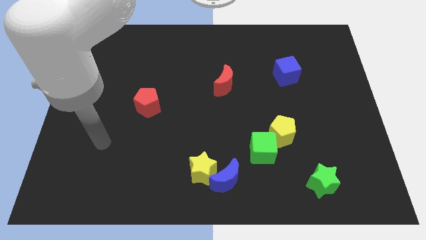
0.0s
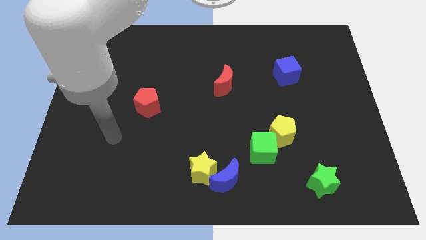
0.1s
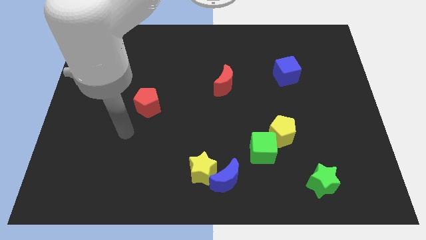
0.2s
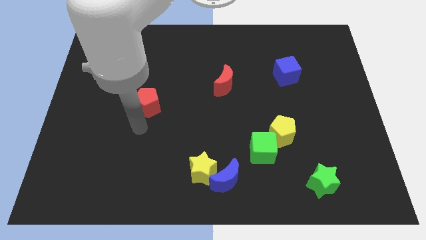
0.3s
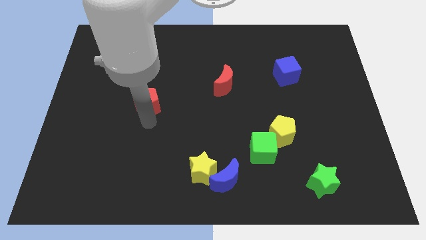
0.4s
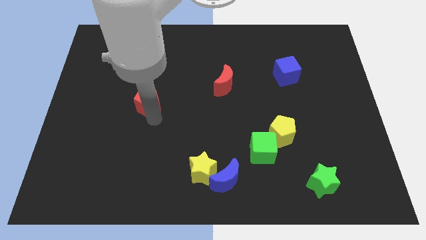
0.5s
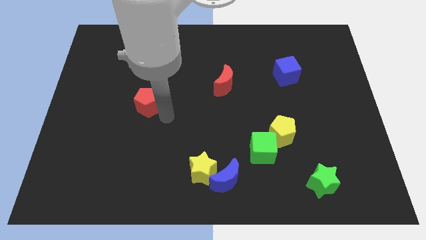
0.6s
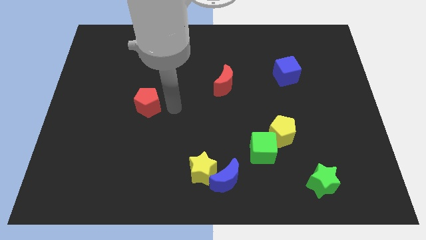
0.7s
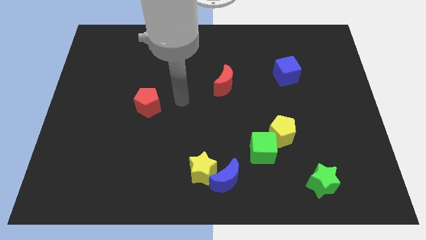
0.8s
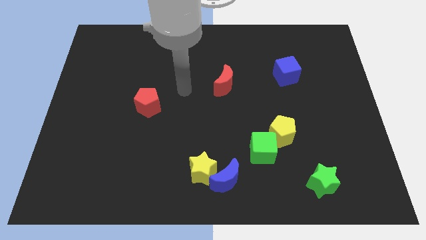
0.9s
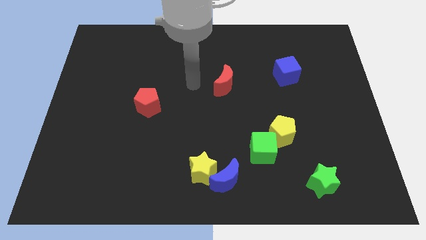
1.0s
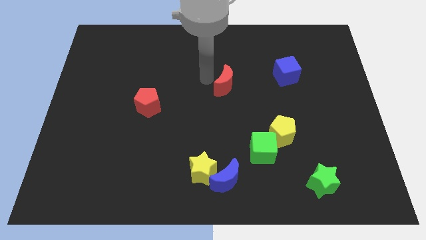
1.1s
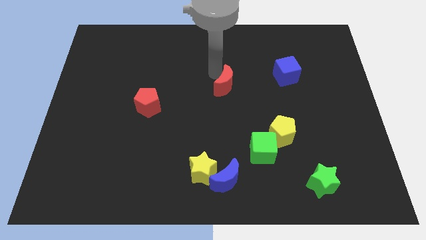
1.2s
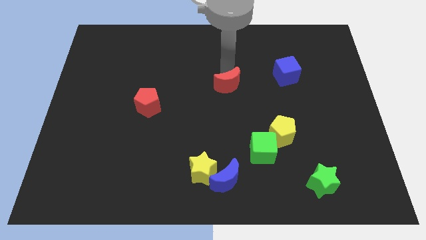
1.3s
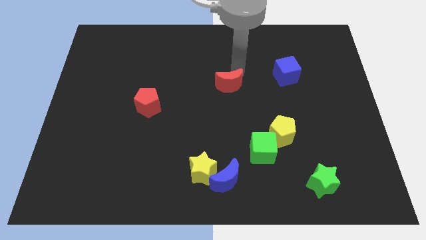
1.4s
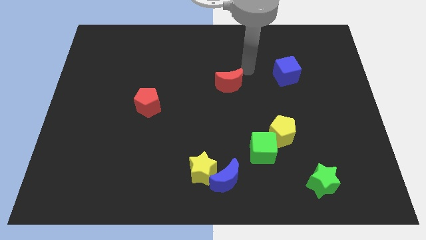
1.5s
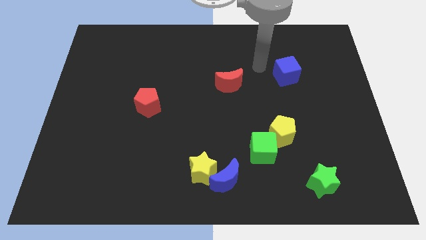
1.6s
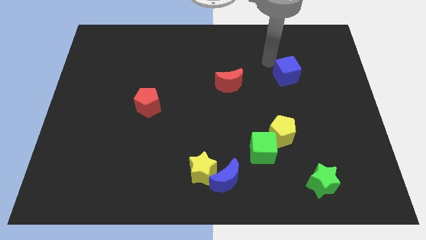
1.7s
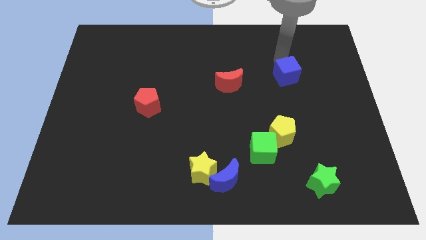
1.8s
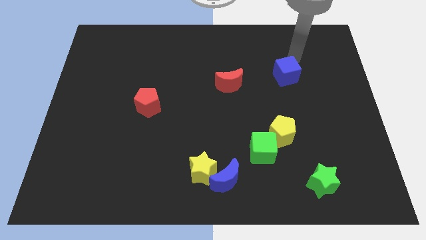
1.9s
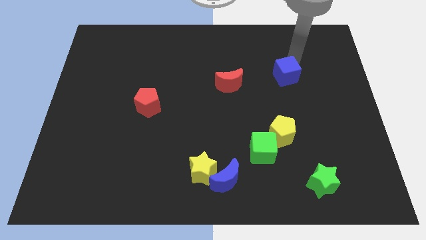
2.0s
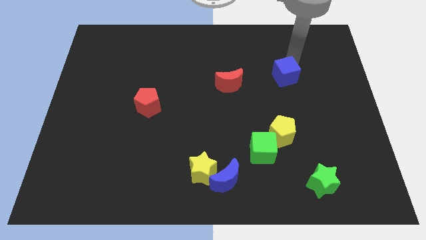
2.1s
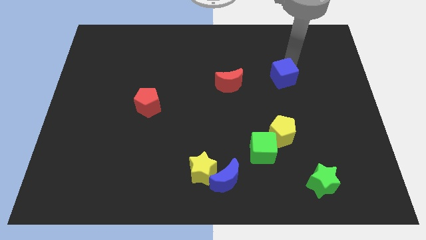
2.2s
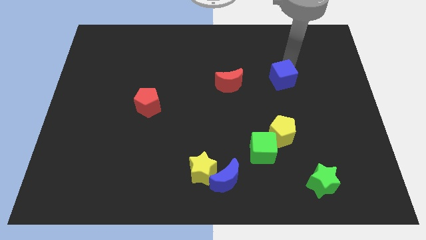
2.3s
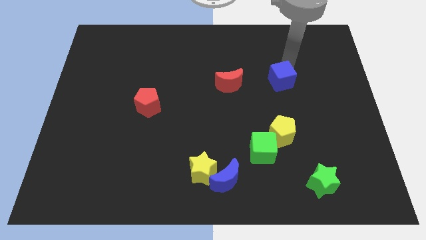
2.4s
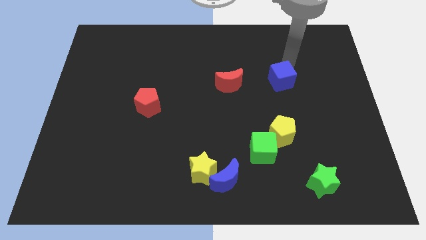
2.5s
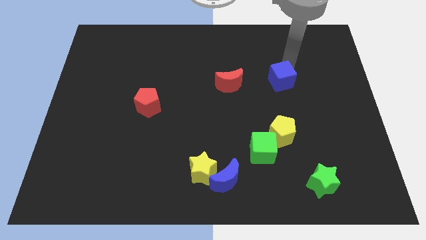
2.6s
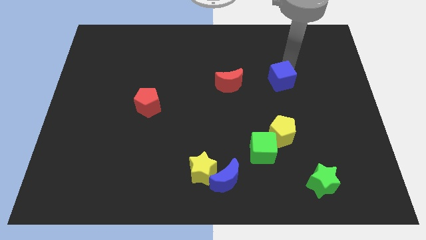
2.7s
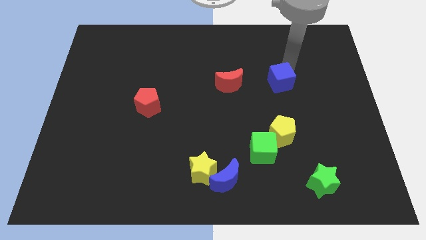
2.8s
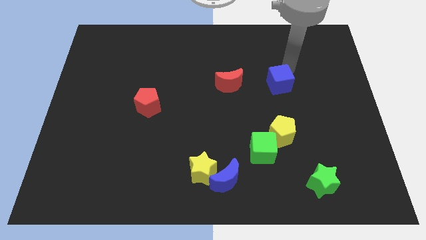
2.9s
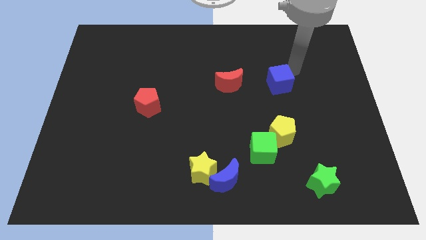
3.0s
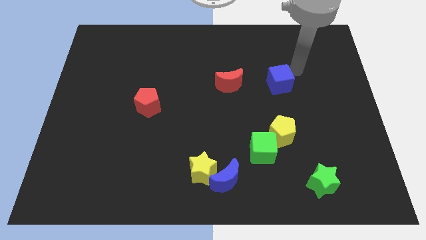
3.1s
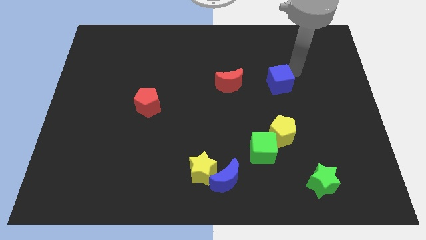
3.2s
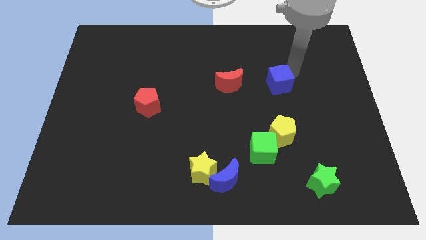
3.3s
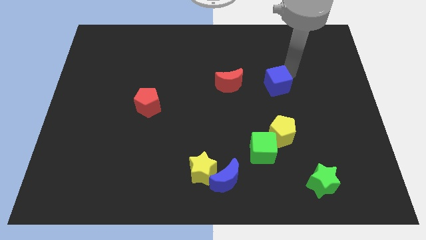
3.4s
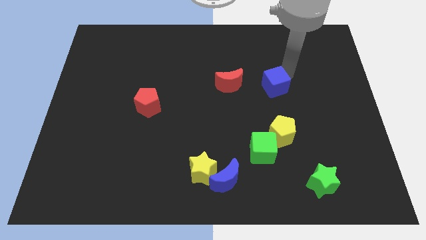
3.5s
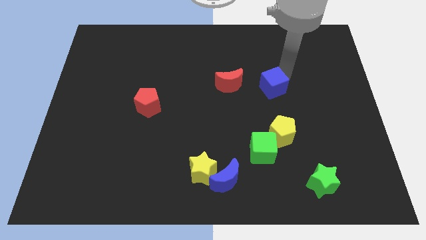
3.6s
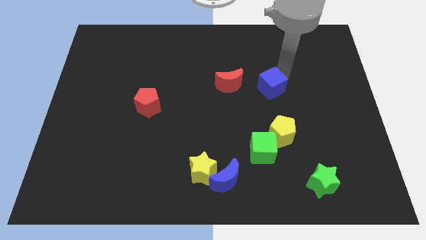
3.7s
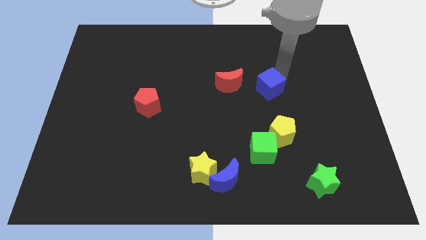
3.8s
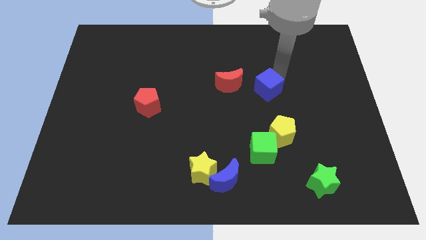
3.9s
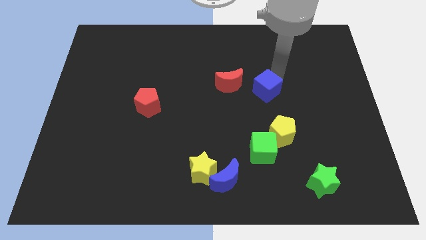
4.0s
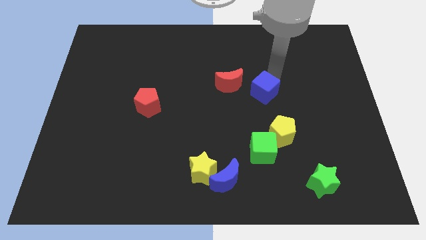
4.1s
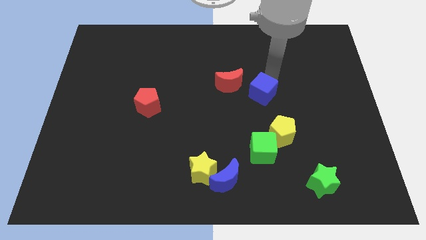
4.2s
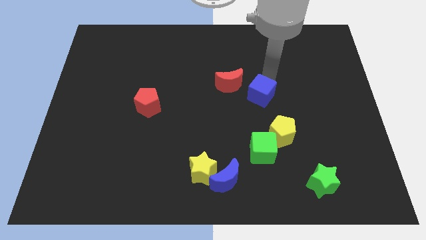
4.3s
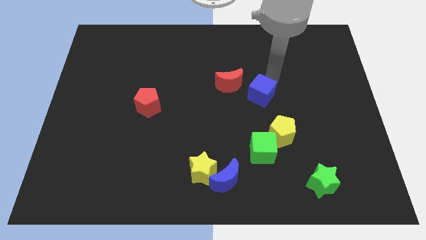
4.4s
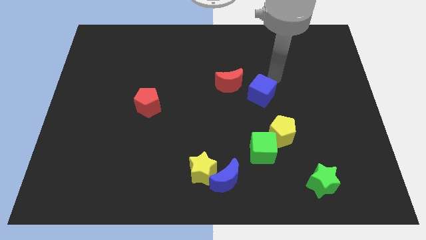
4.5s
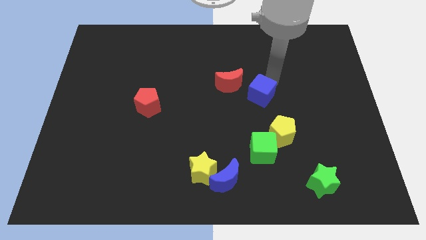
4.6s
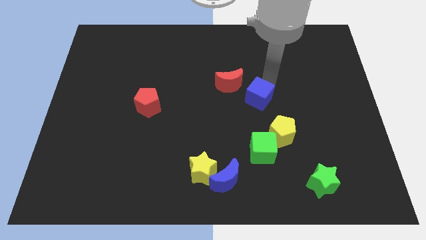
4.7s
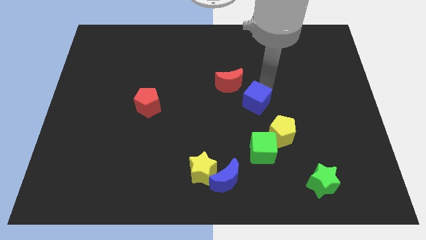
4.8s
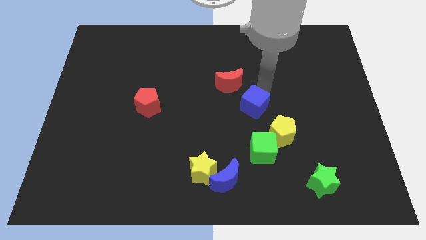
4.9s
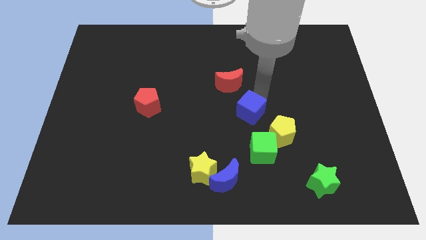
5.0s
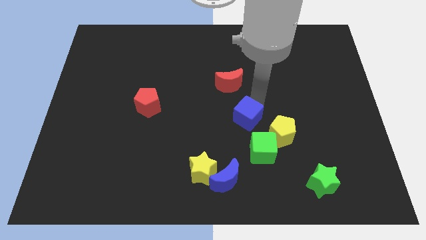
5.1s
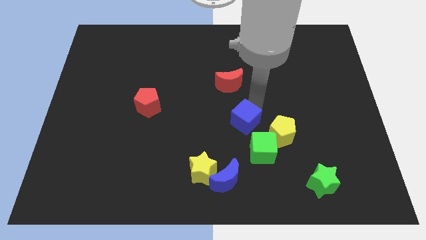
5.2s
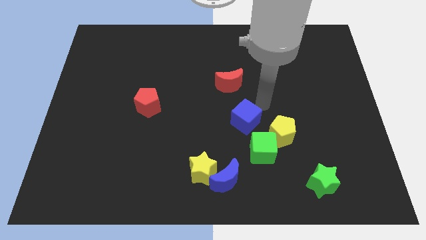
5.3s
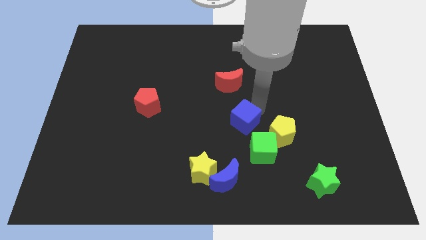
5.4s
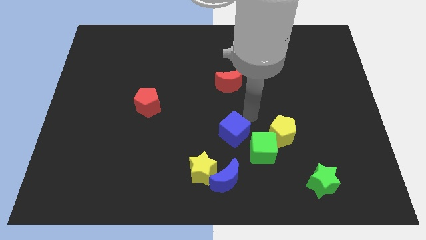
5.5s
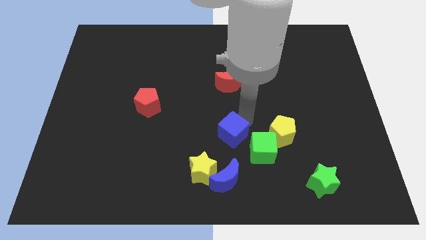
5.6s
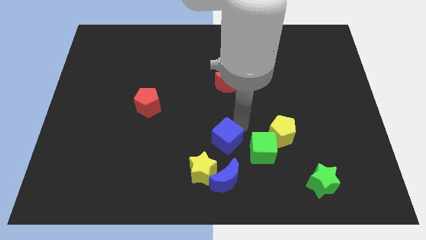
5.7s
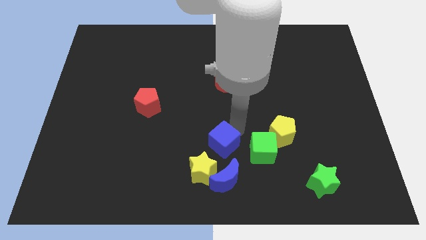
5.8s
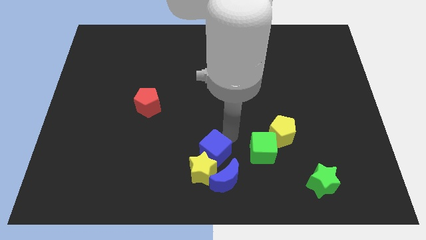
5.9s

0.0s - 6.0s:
put the blue cube next to the yellow star

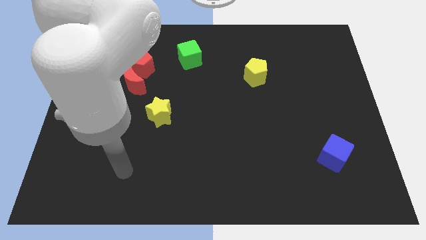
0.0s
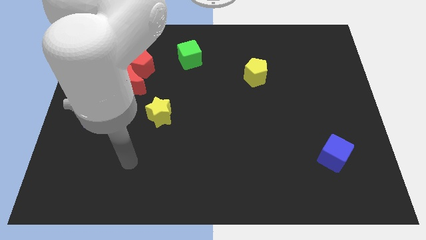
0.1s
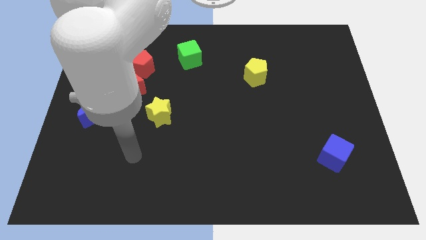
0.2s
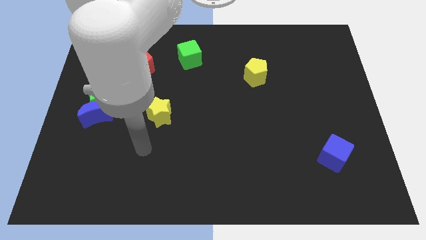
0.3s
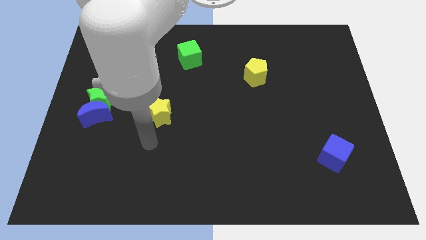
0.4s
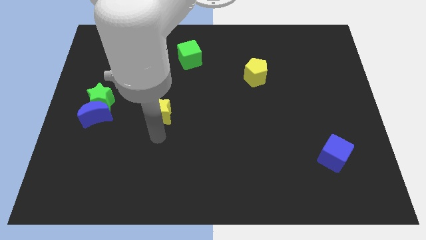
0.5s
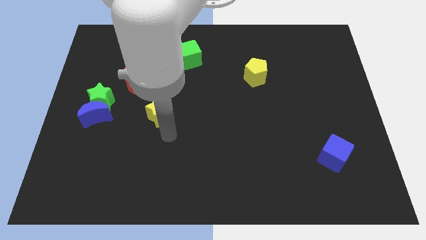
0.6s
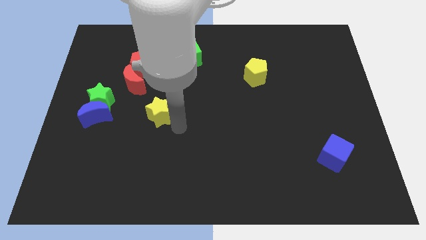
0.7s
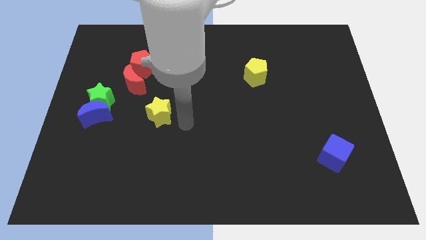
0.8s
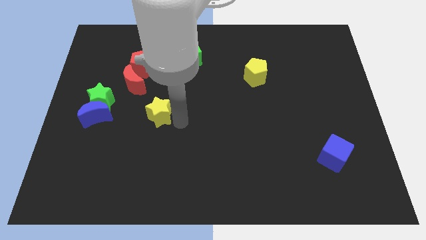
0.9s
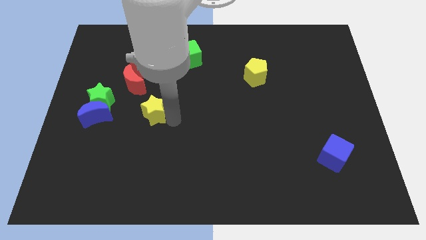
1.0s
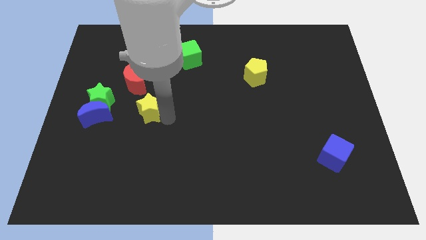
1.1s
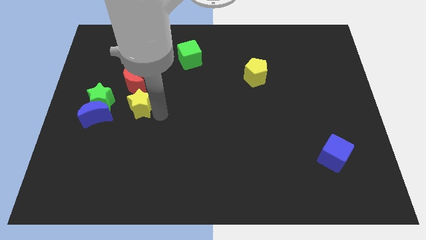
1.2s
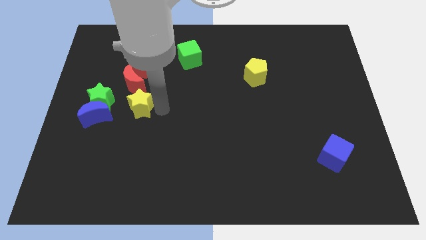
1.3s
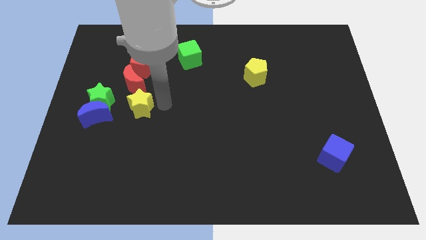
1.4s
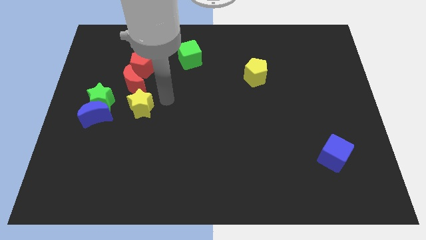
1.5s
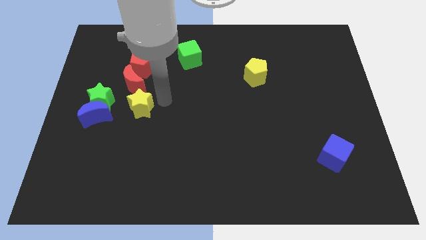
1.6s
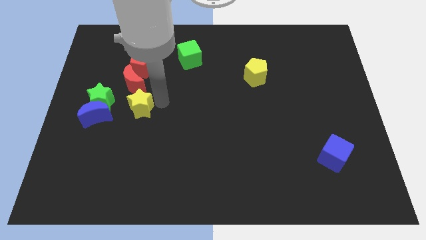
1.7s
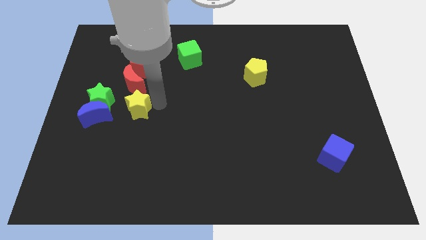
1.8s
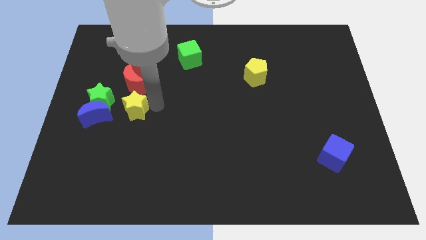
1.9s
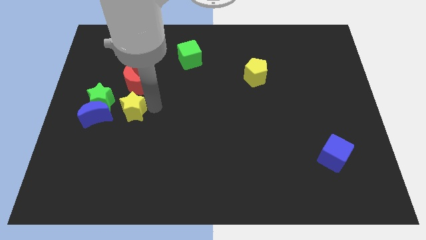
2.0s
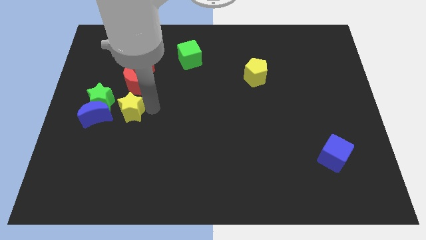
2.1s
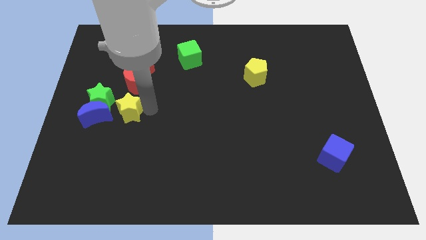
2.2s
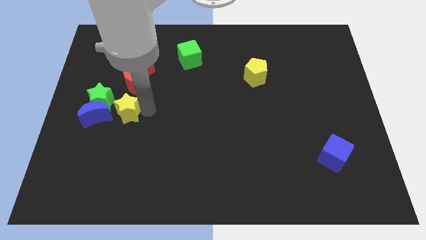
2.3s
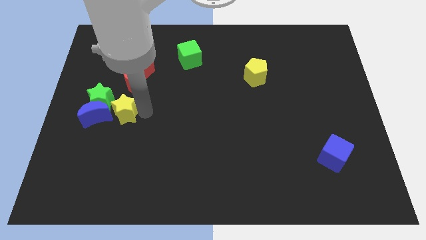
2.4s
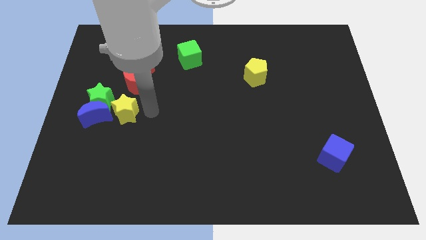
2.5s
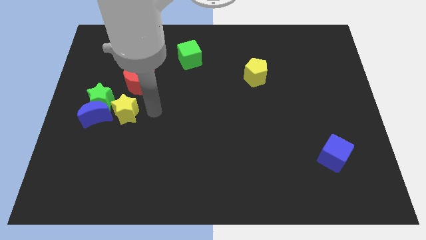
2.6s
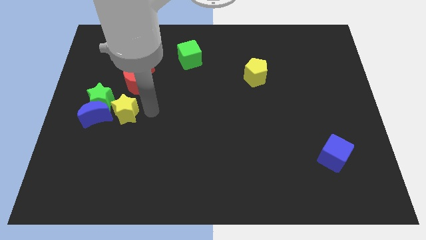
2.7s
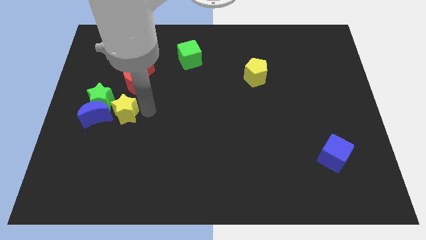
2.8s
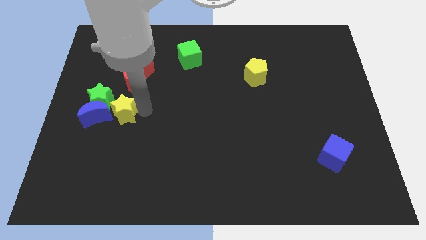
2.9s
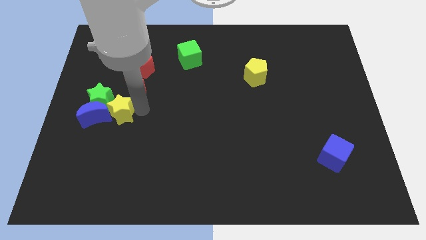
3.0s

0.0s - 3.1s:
move the yellow star next to the blue moon
